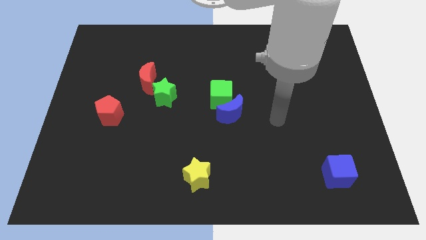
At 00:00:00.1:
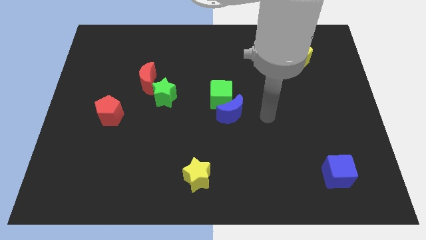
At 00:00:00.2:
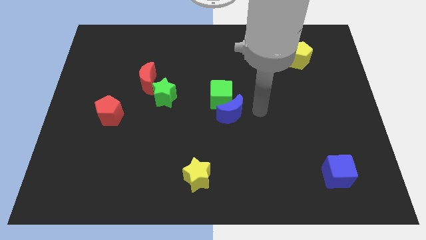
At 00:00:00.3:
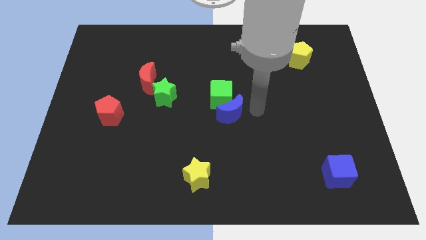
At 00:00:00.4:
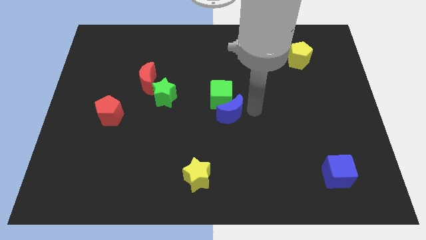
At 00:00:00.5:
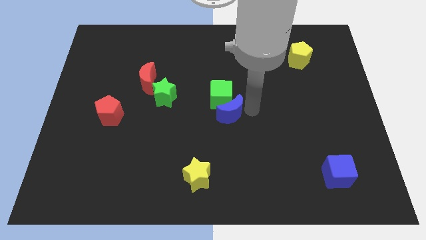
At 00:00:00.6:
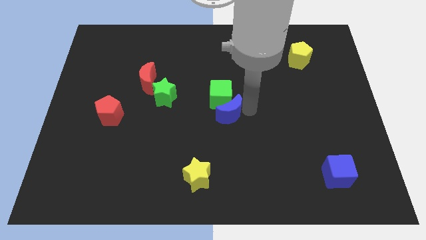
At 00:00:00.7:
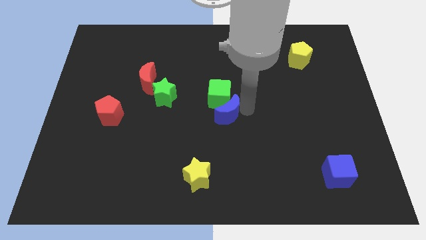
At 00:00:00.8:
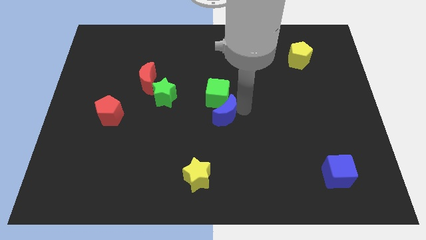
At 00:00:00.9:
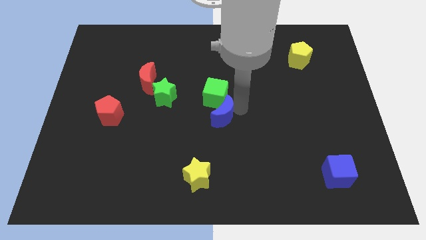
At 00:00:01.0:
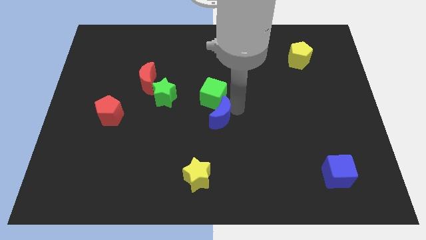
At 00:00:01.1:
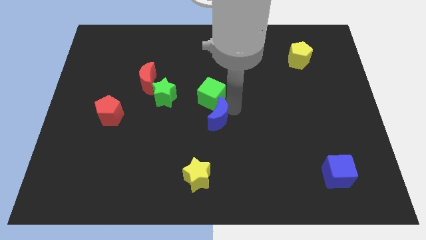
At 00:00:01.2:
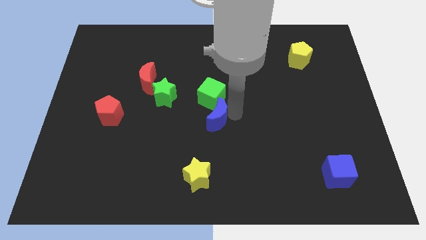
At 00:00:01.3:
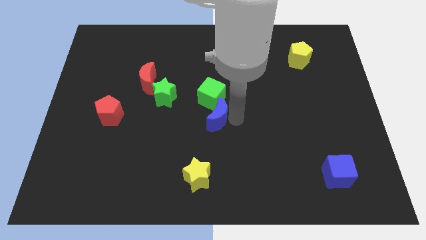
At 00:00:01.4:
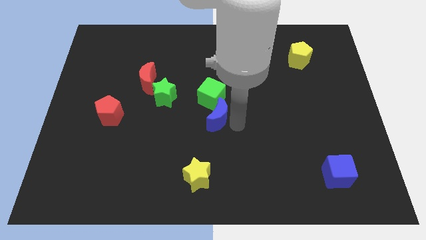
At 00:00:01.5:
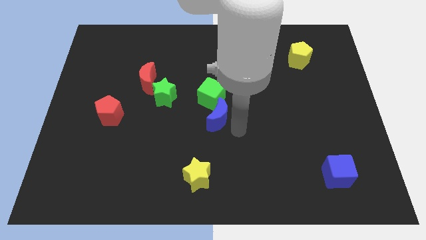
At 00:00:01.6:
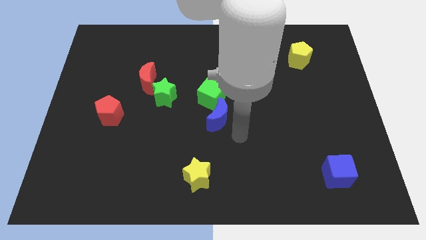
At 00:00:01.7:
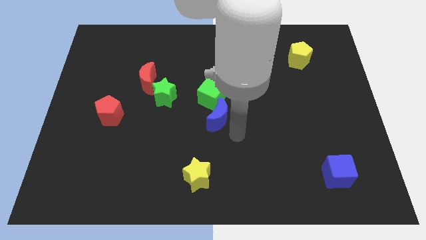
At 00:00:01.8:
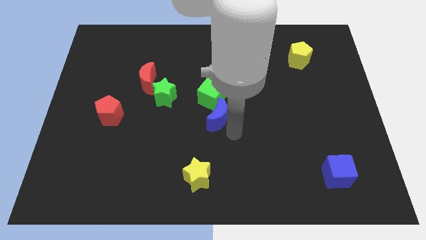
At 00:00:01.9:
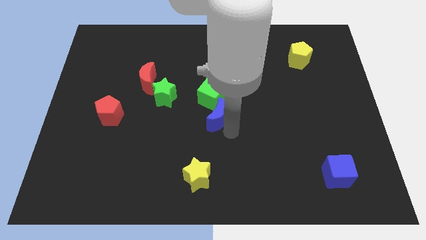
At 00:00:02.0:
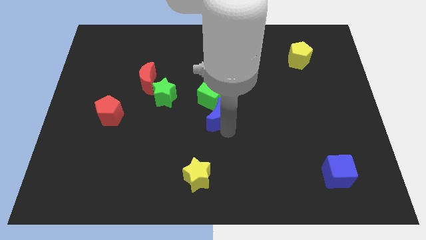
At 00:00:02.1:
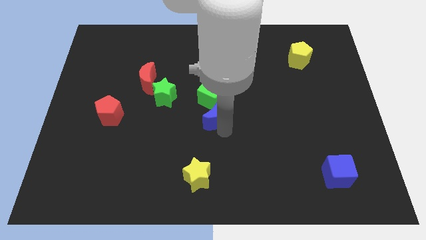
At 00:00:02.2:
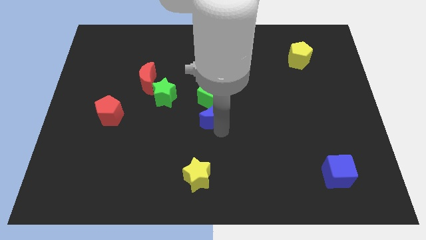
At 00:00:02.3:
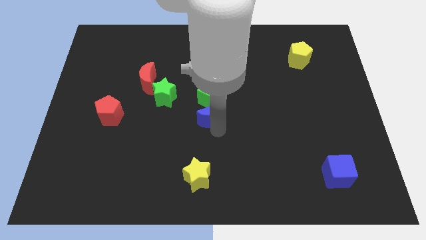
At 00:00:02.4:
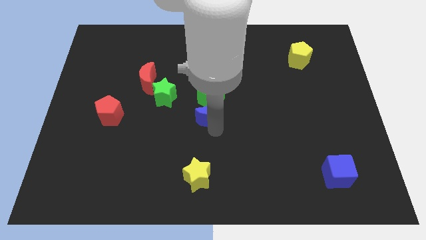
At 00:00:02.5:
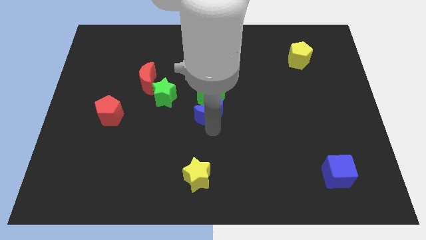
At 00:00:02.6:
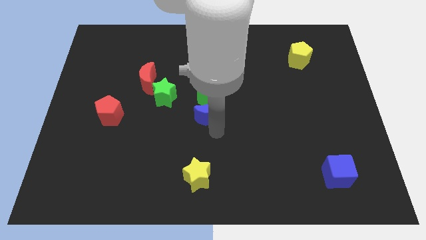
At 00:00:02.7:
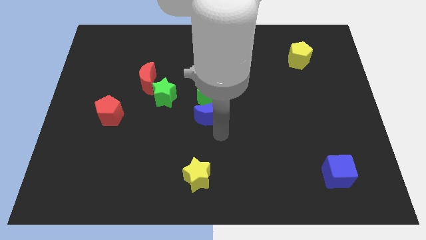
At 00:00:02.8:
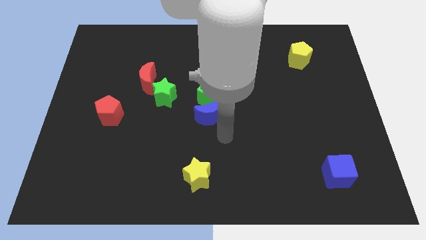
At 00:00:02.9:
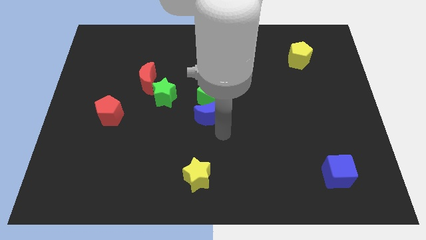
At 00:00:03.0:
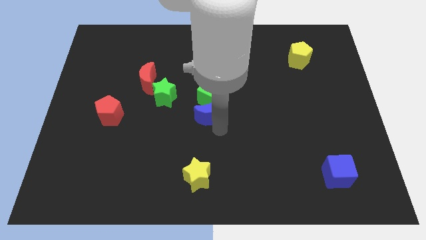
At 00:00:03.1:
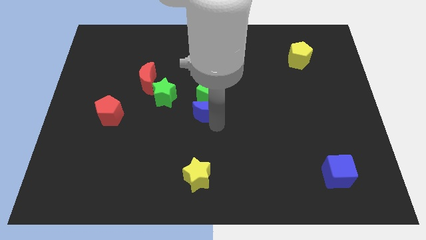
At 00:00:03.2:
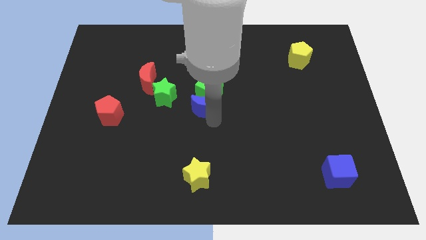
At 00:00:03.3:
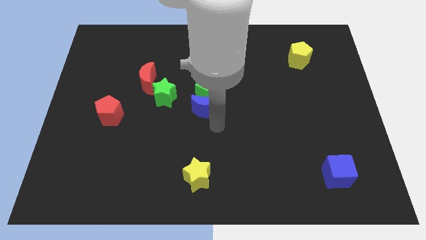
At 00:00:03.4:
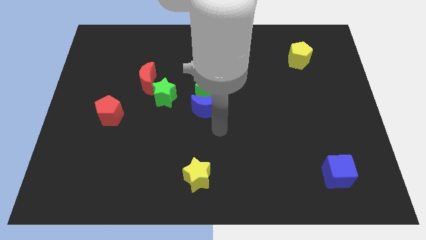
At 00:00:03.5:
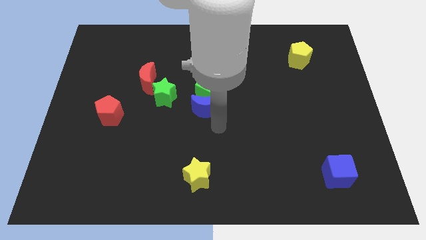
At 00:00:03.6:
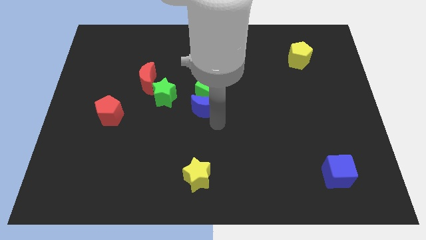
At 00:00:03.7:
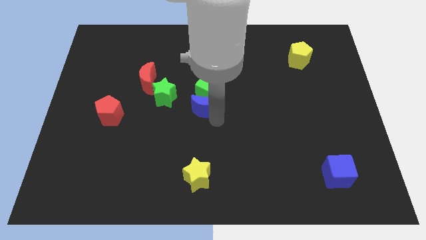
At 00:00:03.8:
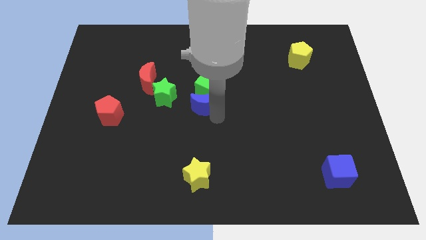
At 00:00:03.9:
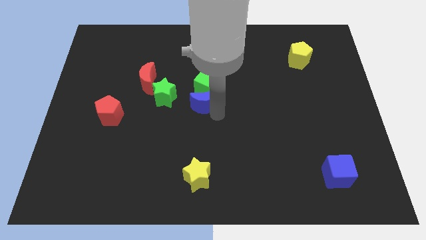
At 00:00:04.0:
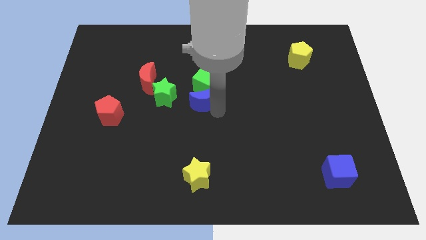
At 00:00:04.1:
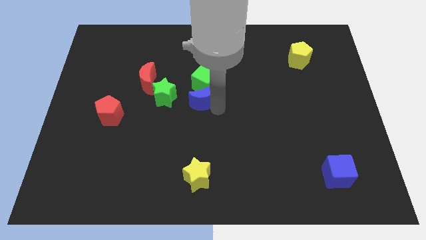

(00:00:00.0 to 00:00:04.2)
push the blue moon up and left slightly

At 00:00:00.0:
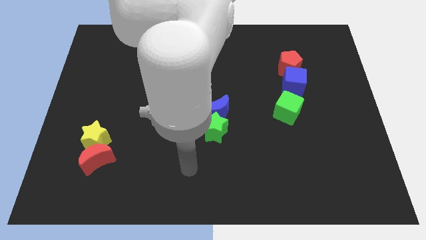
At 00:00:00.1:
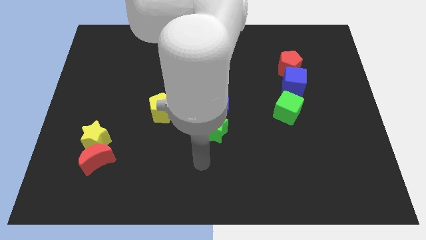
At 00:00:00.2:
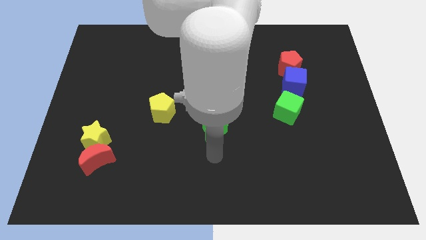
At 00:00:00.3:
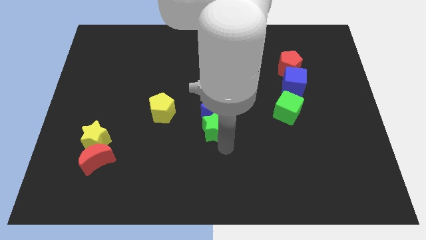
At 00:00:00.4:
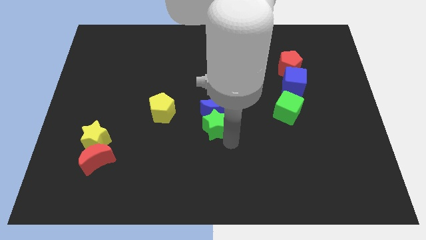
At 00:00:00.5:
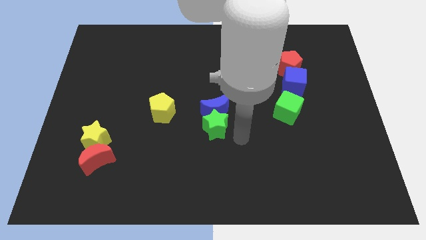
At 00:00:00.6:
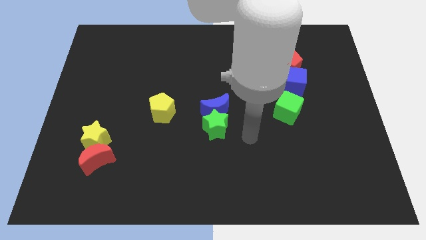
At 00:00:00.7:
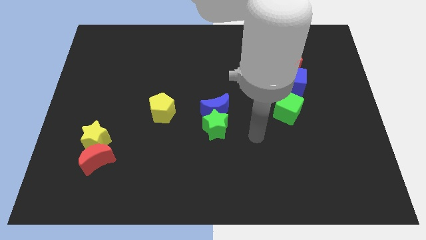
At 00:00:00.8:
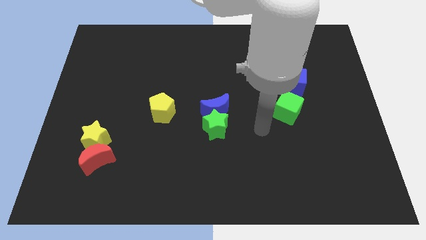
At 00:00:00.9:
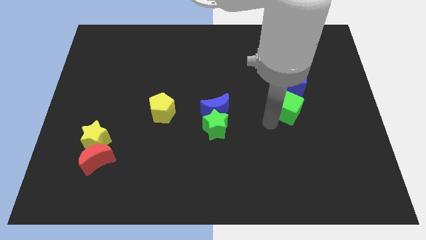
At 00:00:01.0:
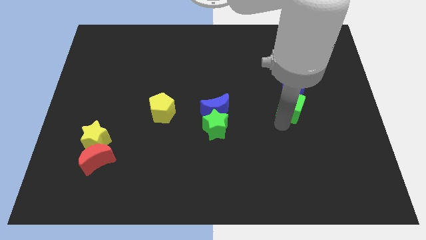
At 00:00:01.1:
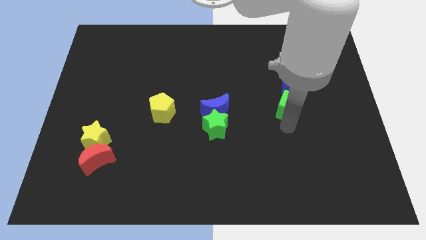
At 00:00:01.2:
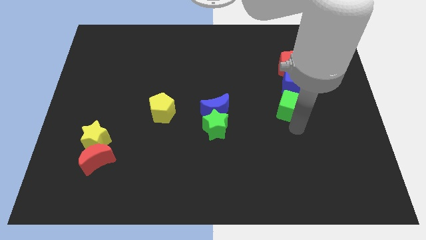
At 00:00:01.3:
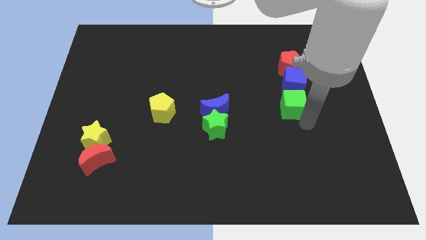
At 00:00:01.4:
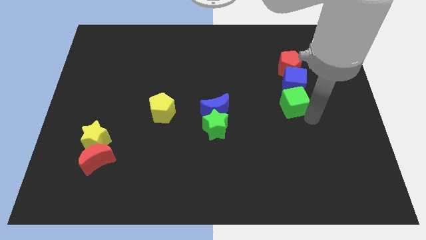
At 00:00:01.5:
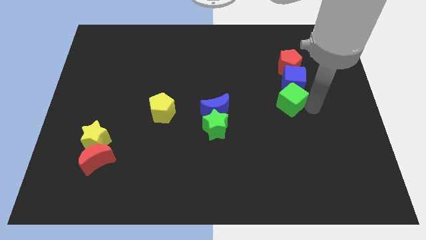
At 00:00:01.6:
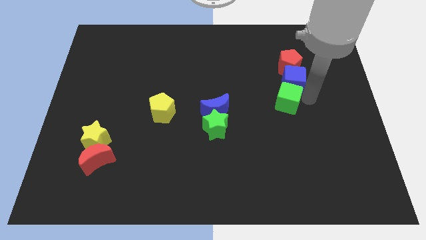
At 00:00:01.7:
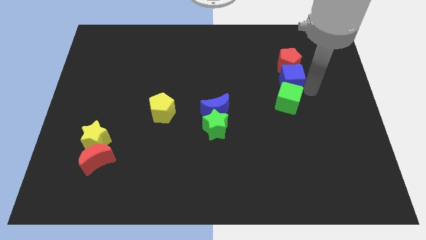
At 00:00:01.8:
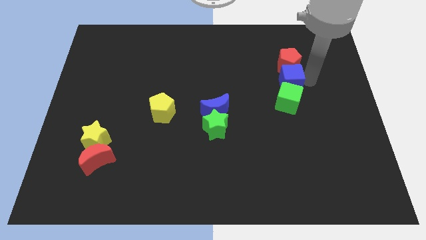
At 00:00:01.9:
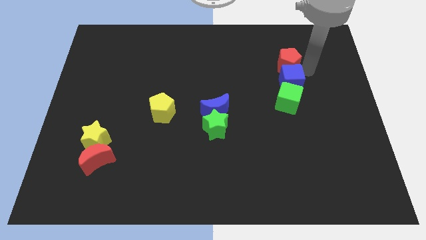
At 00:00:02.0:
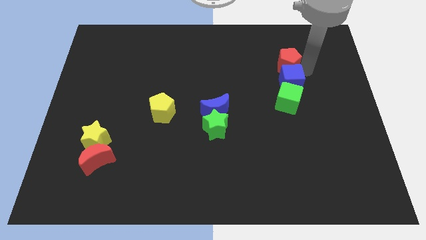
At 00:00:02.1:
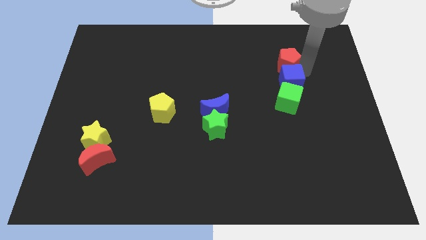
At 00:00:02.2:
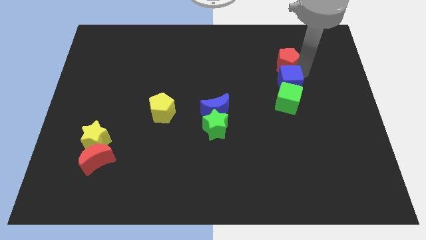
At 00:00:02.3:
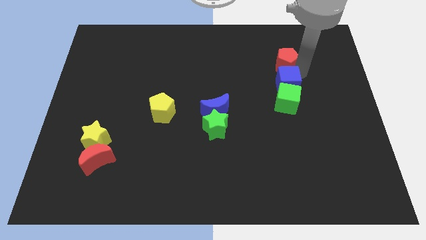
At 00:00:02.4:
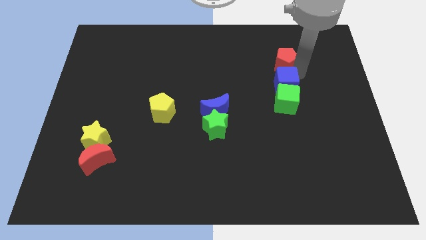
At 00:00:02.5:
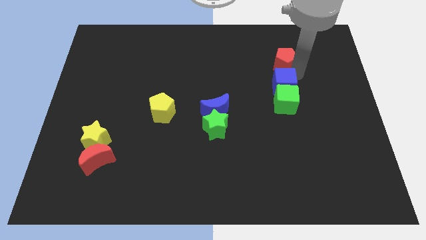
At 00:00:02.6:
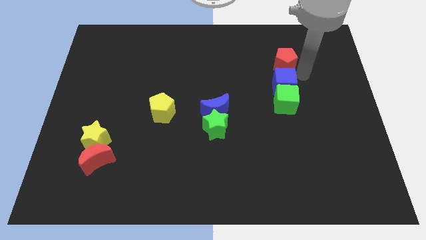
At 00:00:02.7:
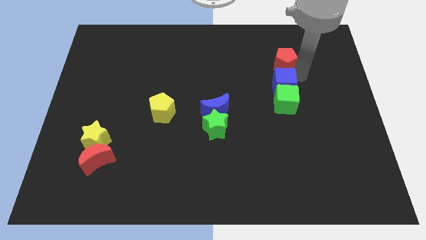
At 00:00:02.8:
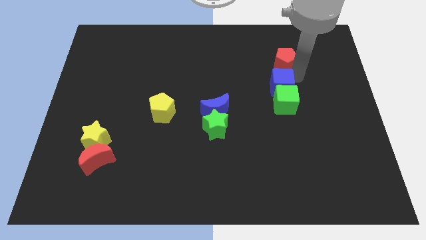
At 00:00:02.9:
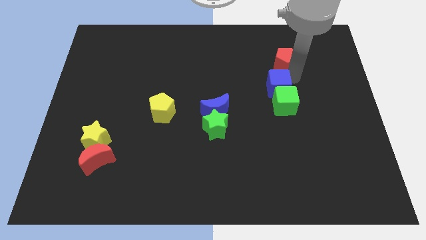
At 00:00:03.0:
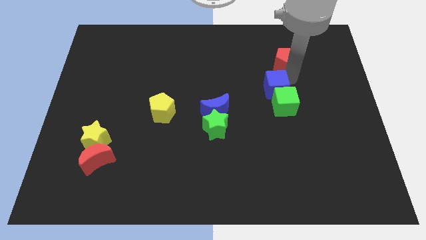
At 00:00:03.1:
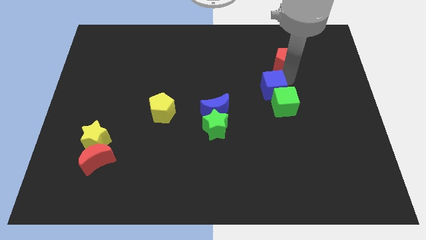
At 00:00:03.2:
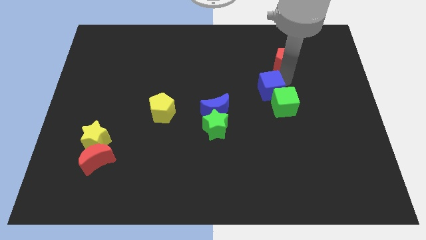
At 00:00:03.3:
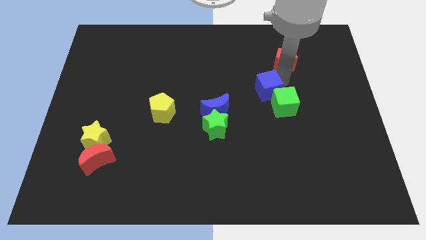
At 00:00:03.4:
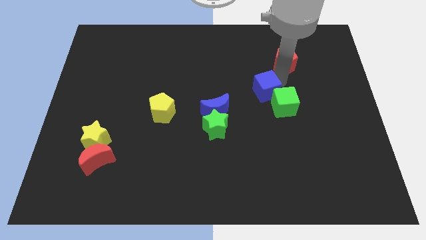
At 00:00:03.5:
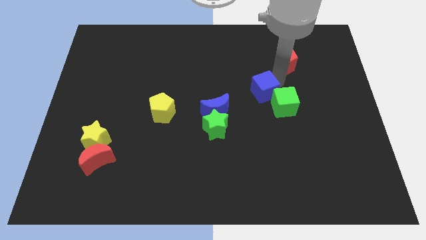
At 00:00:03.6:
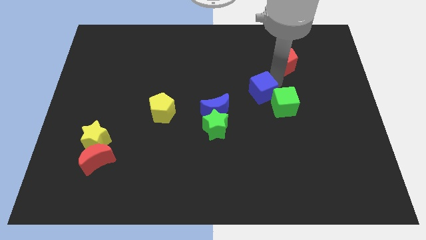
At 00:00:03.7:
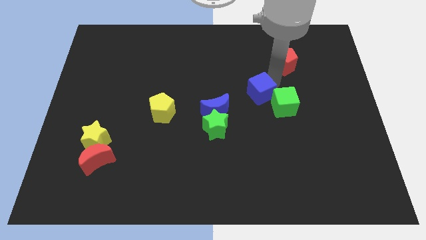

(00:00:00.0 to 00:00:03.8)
slightly push the blue cube diagonally downwards and left
